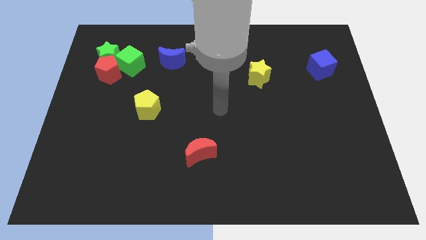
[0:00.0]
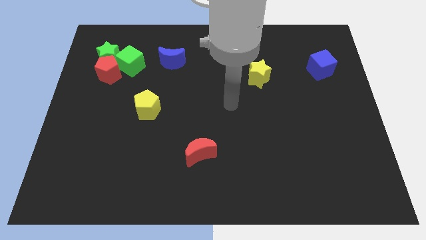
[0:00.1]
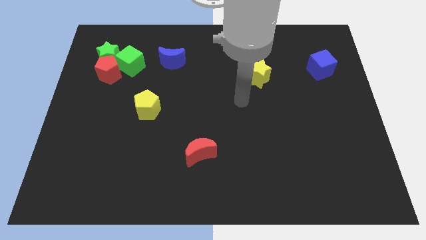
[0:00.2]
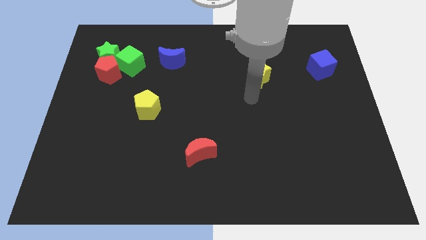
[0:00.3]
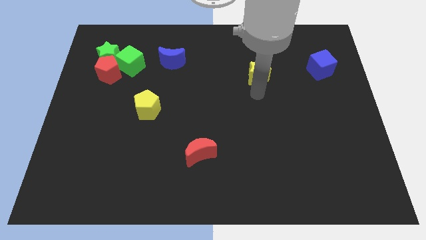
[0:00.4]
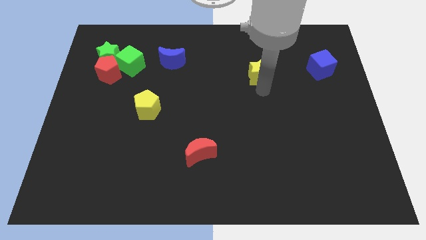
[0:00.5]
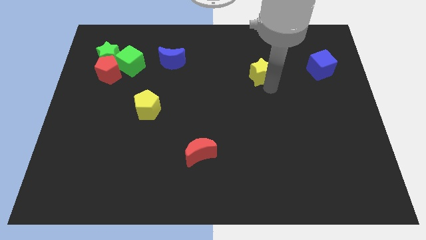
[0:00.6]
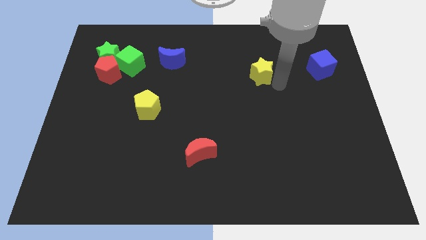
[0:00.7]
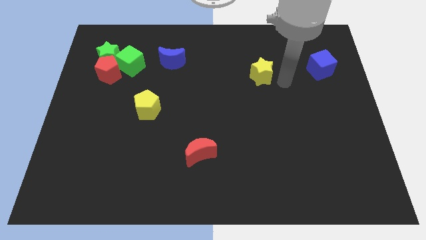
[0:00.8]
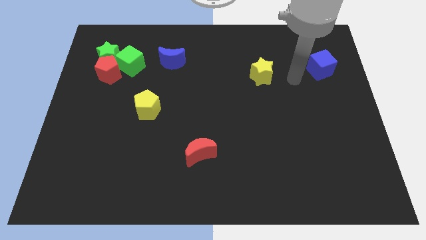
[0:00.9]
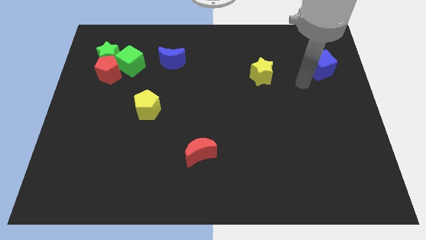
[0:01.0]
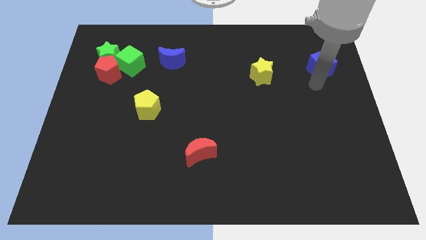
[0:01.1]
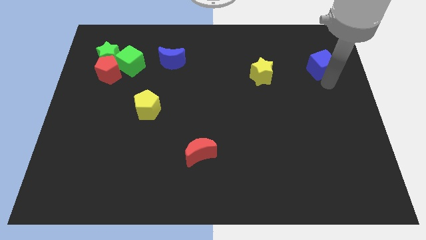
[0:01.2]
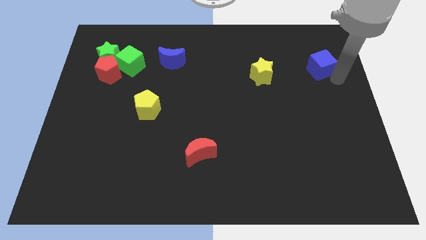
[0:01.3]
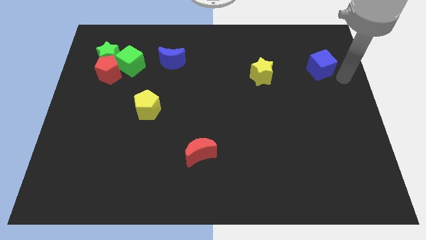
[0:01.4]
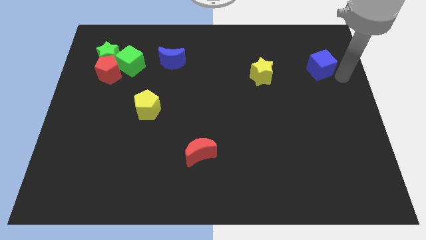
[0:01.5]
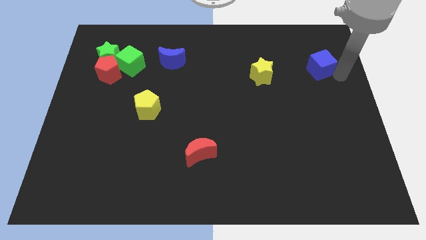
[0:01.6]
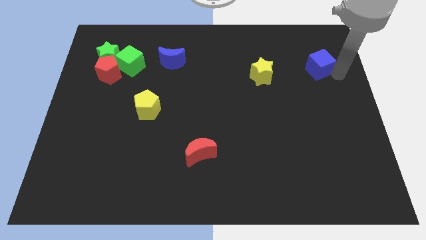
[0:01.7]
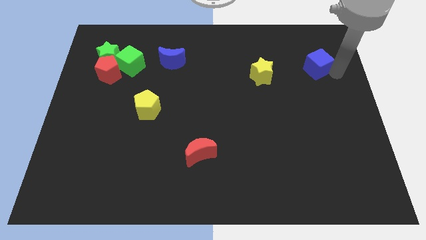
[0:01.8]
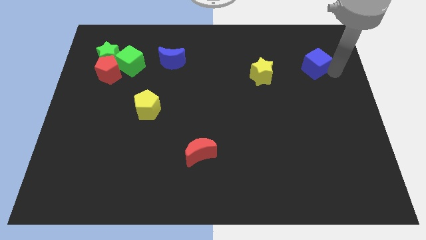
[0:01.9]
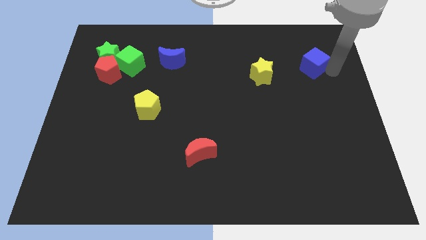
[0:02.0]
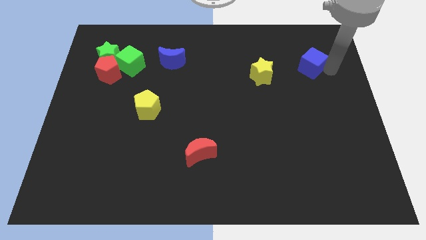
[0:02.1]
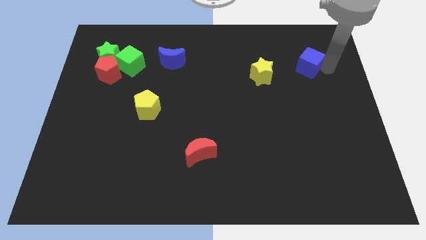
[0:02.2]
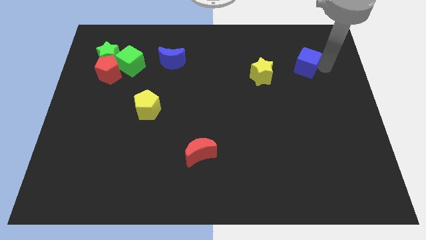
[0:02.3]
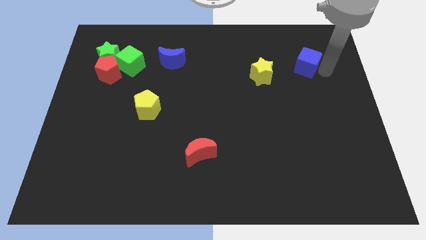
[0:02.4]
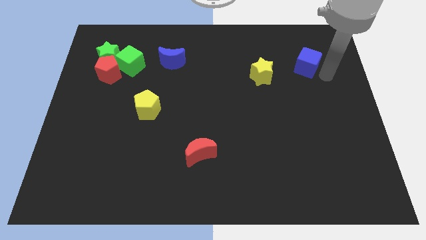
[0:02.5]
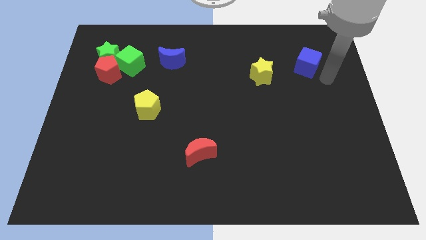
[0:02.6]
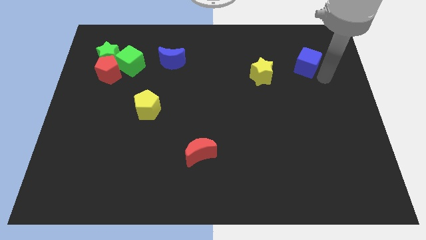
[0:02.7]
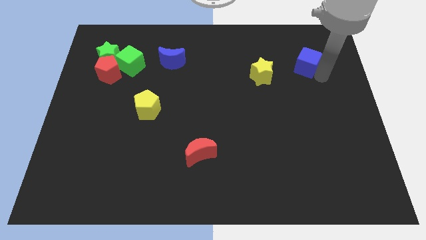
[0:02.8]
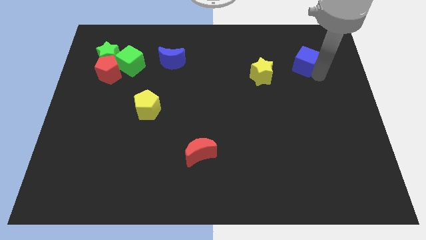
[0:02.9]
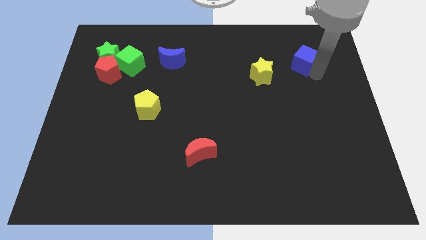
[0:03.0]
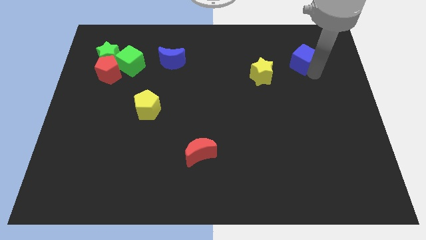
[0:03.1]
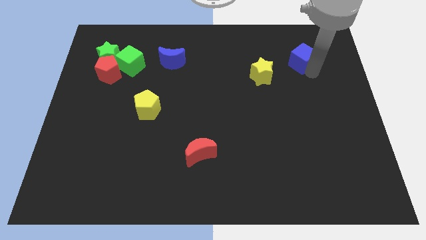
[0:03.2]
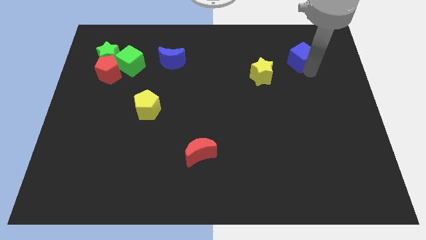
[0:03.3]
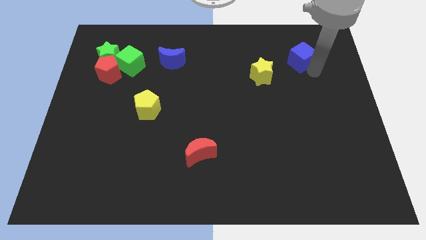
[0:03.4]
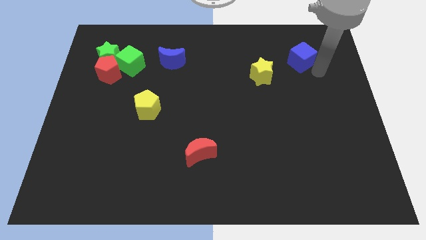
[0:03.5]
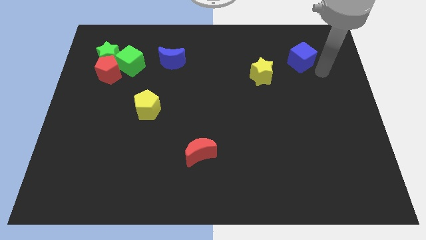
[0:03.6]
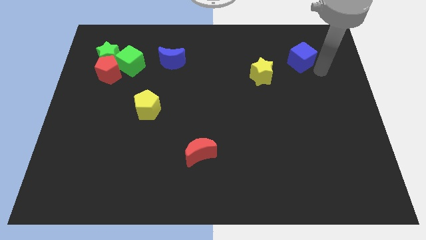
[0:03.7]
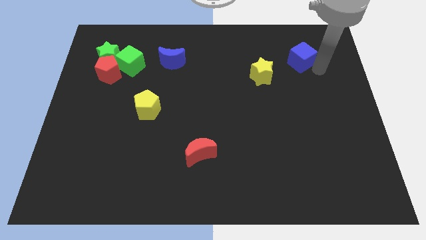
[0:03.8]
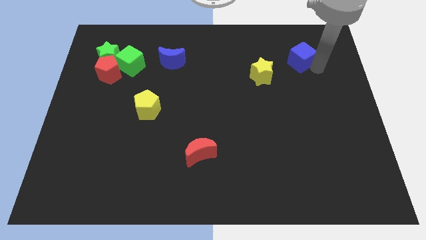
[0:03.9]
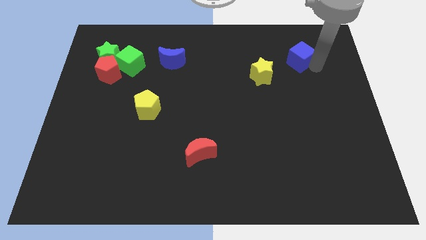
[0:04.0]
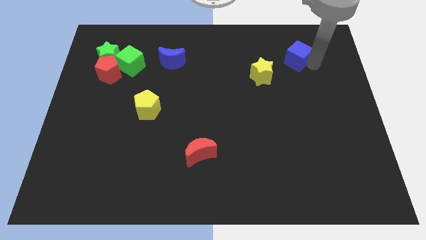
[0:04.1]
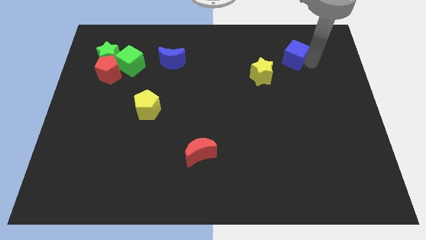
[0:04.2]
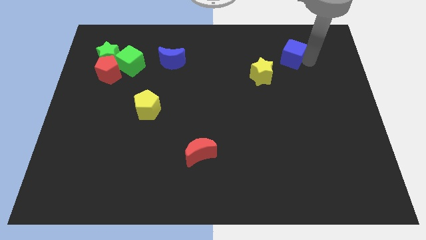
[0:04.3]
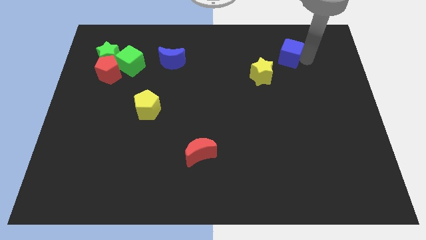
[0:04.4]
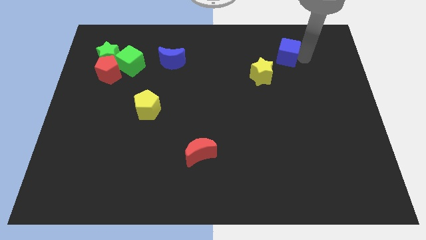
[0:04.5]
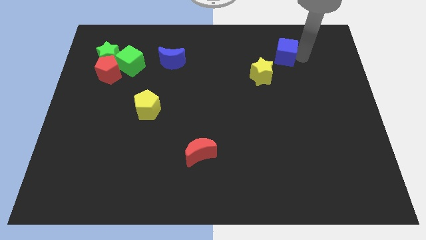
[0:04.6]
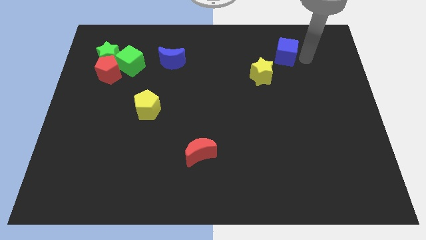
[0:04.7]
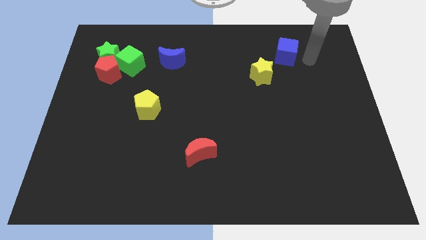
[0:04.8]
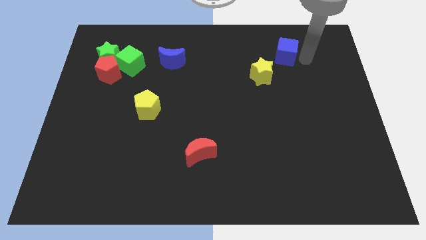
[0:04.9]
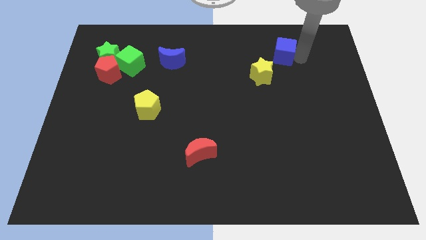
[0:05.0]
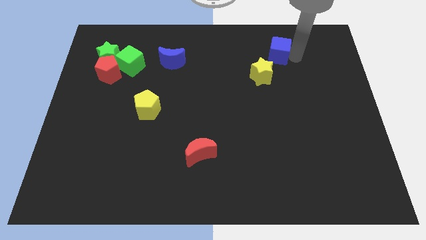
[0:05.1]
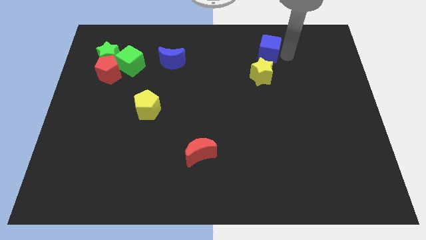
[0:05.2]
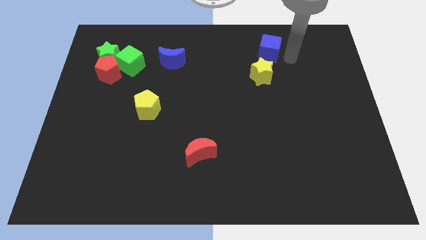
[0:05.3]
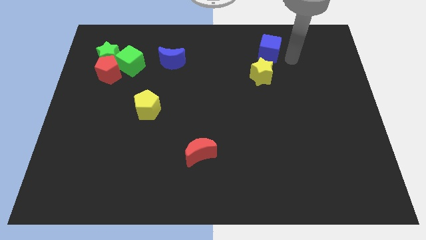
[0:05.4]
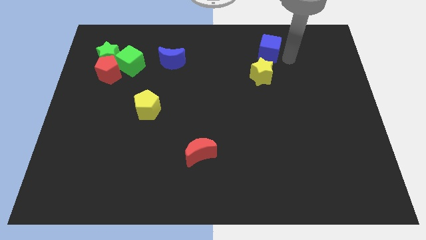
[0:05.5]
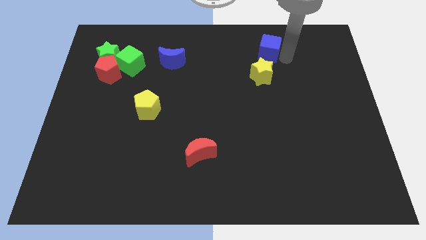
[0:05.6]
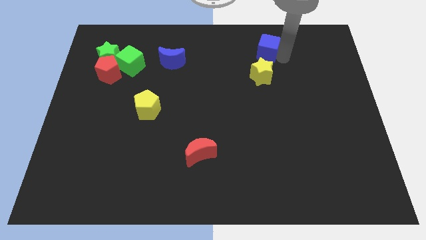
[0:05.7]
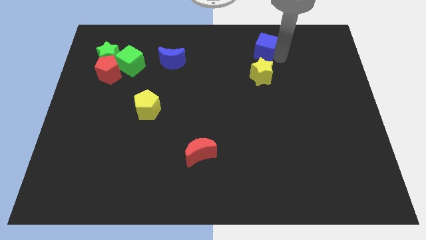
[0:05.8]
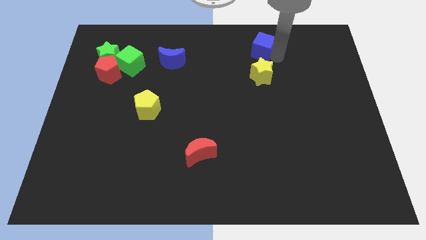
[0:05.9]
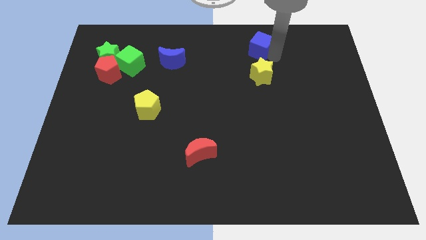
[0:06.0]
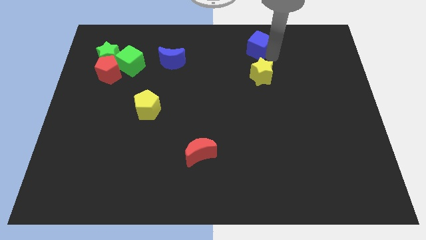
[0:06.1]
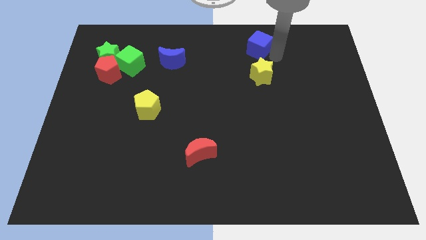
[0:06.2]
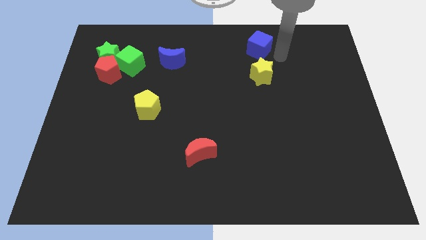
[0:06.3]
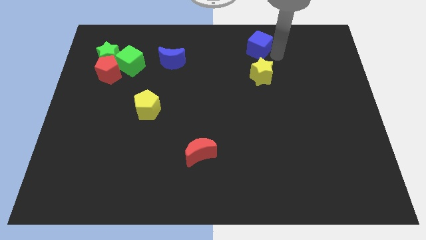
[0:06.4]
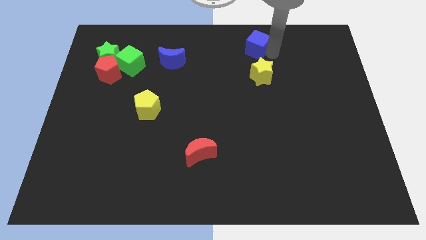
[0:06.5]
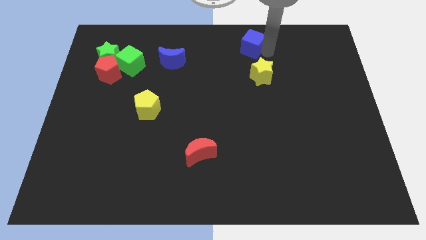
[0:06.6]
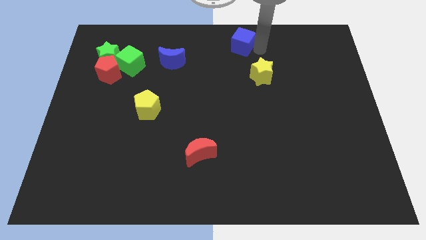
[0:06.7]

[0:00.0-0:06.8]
put the blue cube to the top
